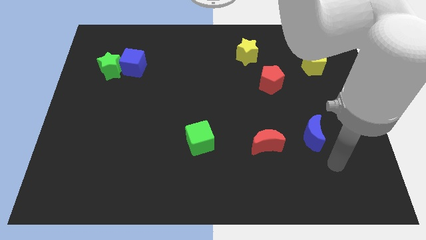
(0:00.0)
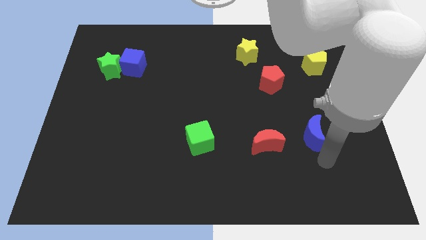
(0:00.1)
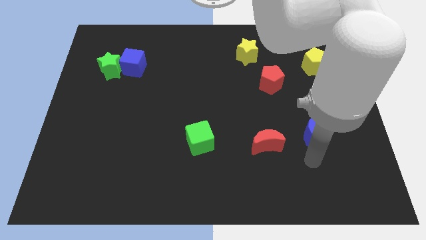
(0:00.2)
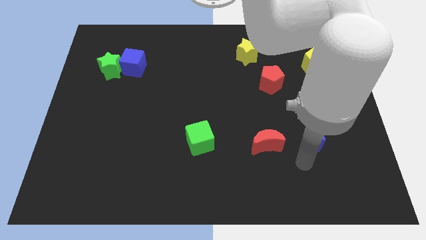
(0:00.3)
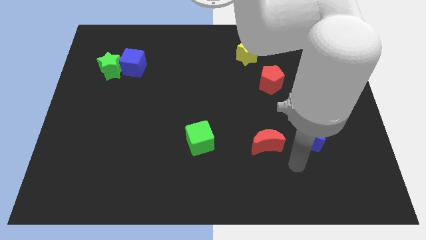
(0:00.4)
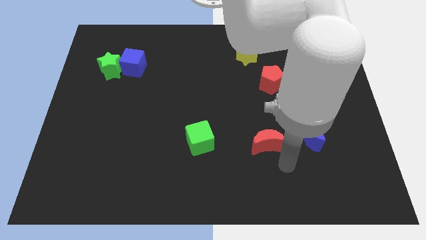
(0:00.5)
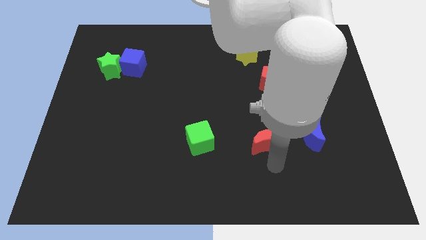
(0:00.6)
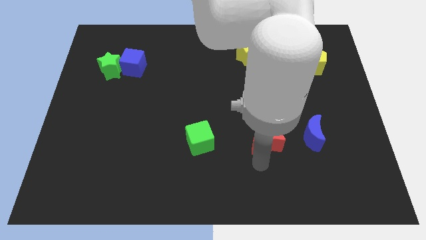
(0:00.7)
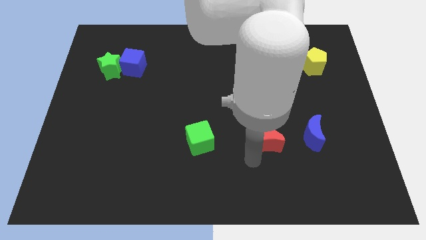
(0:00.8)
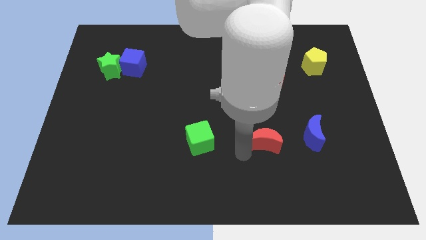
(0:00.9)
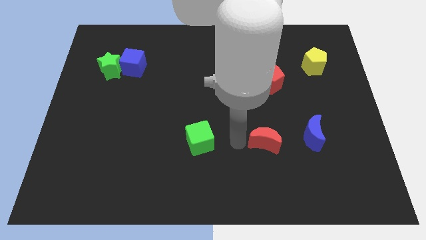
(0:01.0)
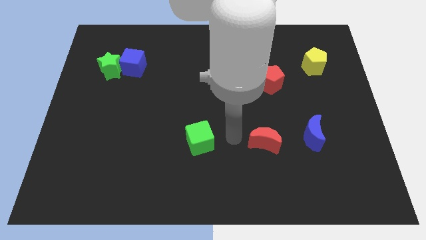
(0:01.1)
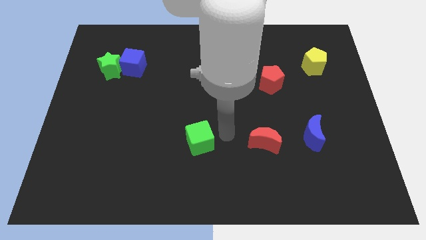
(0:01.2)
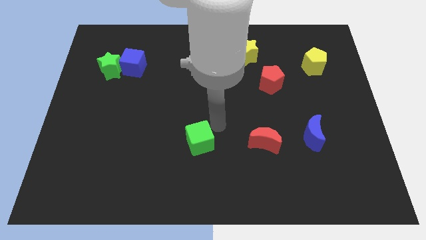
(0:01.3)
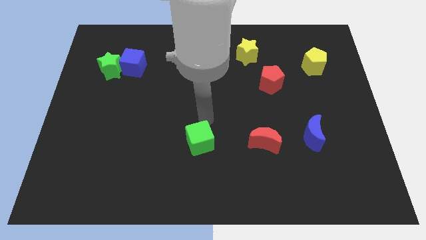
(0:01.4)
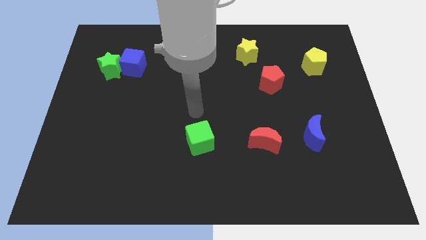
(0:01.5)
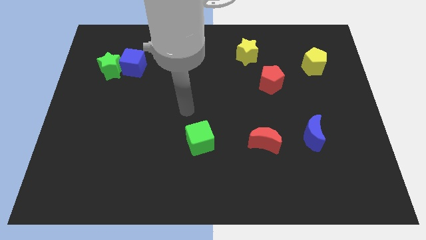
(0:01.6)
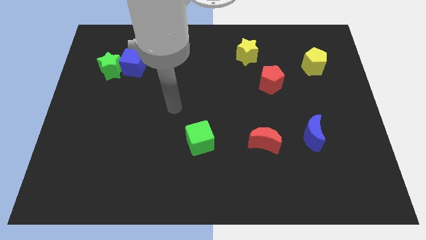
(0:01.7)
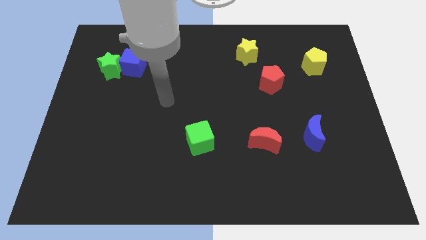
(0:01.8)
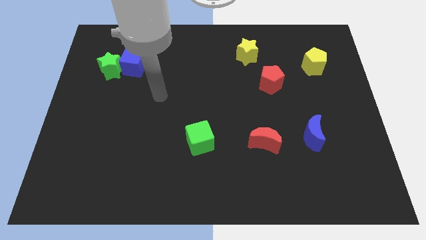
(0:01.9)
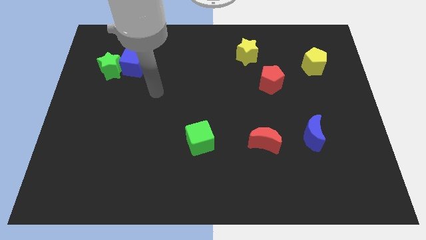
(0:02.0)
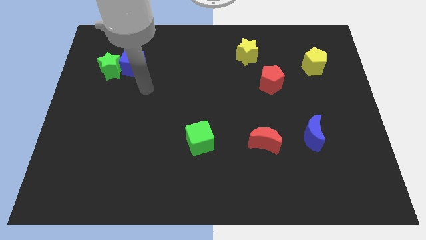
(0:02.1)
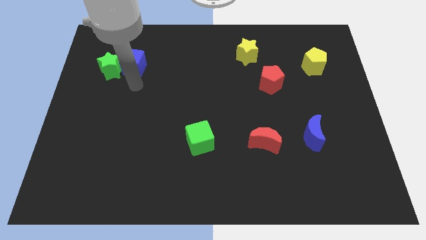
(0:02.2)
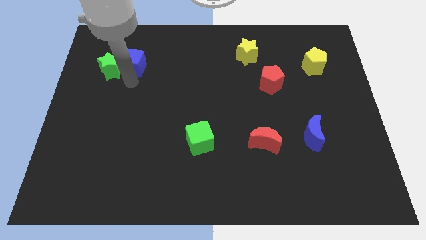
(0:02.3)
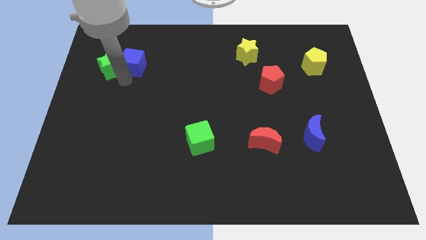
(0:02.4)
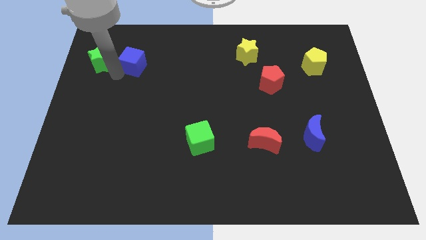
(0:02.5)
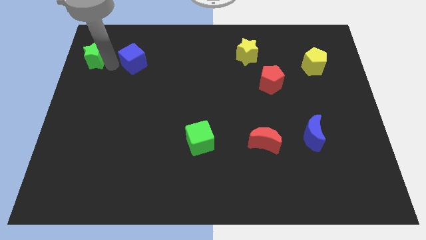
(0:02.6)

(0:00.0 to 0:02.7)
separate the blue cube from the green star

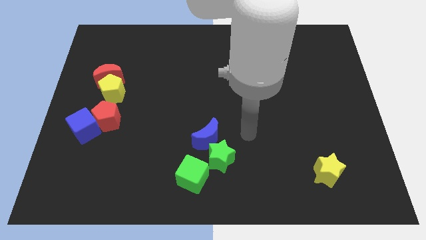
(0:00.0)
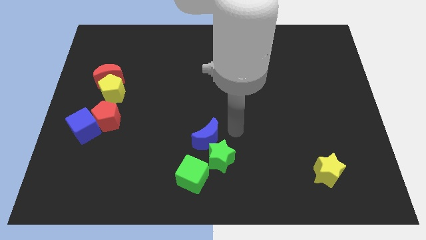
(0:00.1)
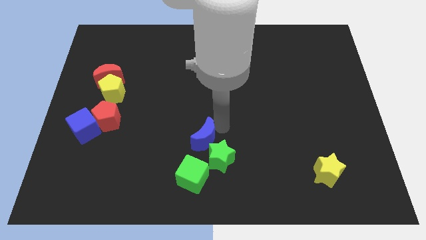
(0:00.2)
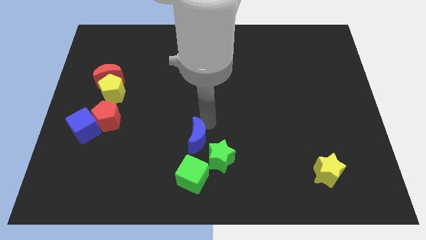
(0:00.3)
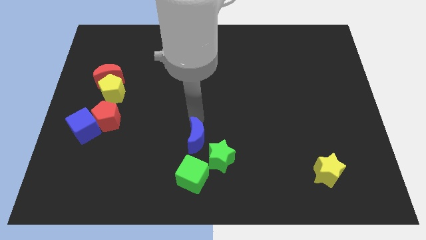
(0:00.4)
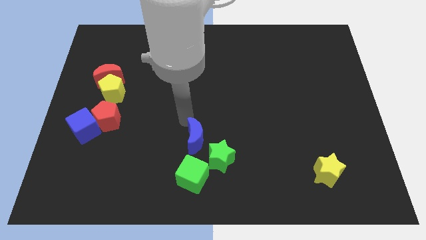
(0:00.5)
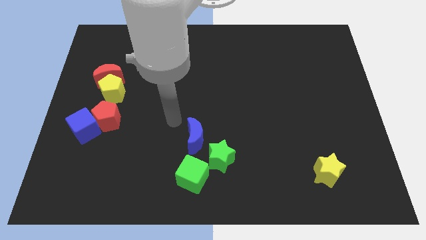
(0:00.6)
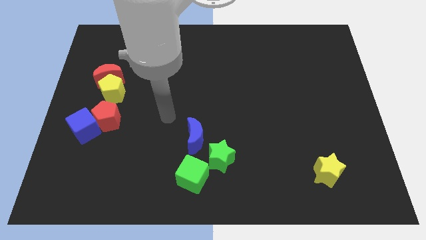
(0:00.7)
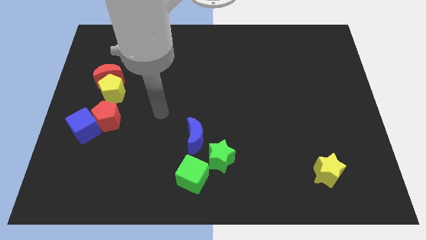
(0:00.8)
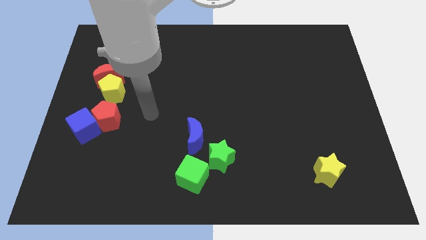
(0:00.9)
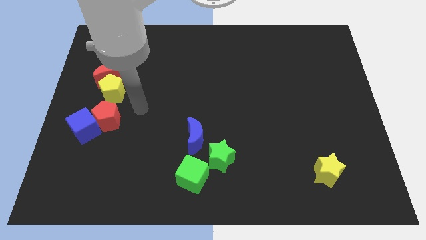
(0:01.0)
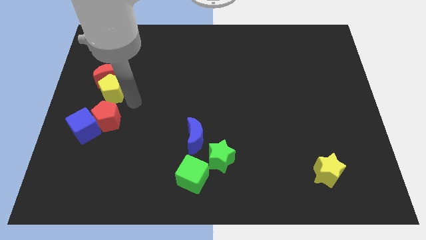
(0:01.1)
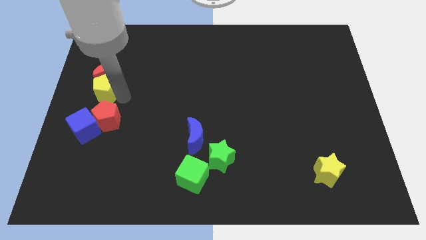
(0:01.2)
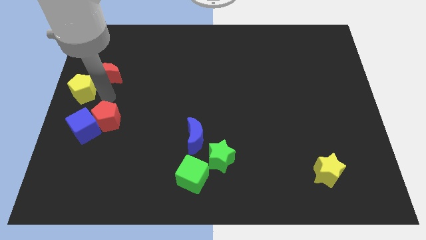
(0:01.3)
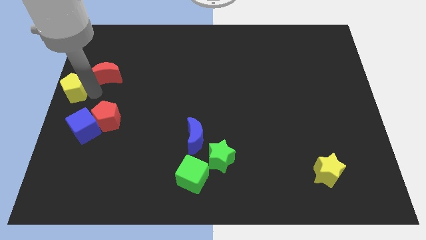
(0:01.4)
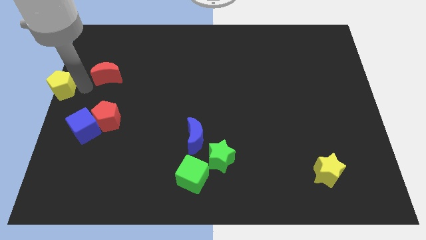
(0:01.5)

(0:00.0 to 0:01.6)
separate the red moon from the yellow pentagon

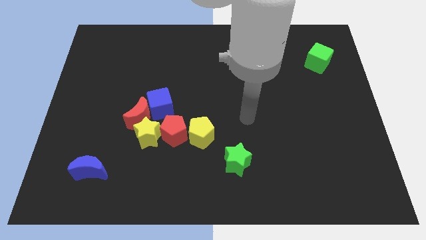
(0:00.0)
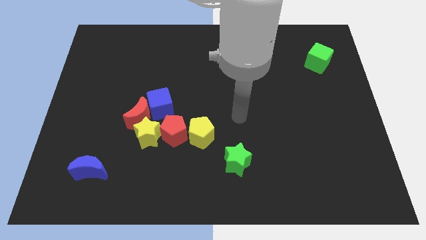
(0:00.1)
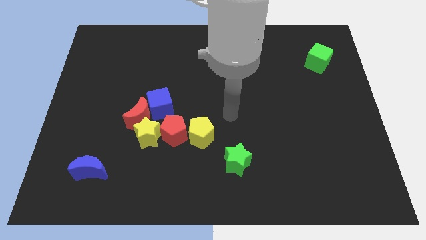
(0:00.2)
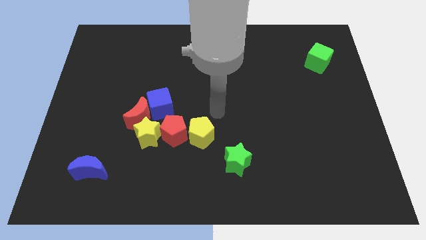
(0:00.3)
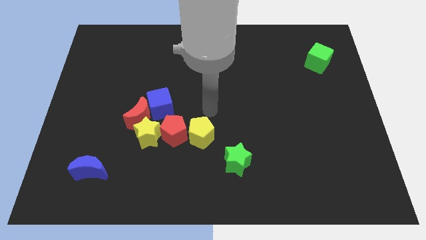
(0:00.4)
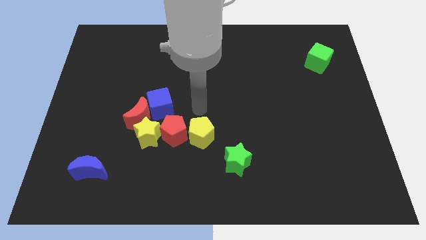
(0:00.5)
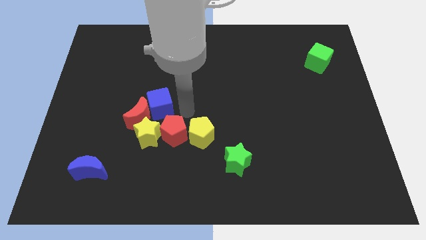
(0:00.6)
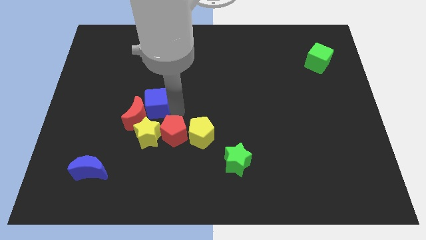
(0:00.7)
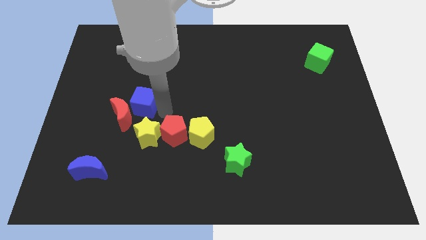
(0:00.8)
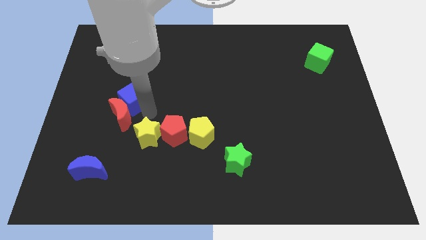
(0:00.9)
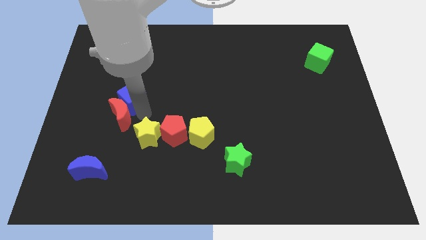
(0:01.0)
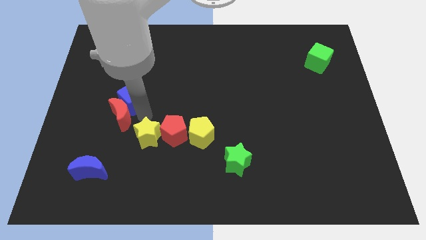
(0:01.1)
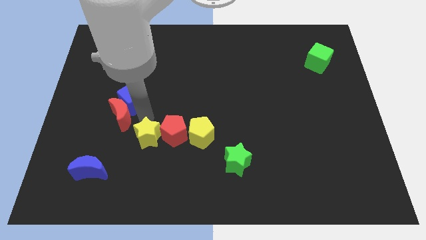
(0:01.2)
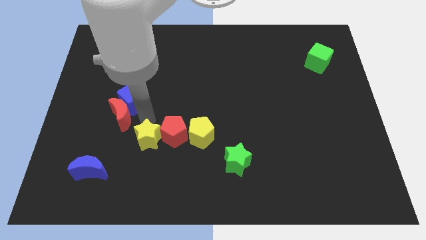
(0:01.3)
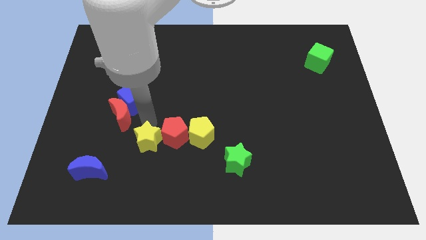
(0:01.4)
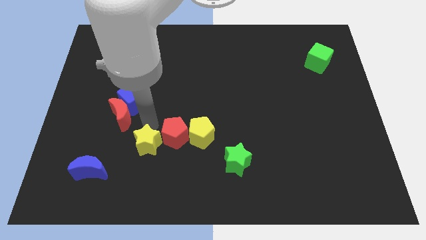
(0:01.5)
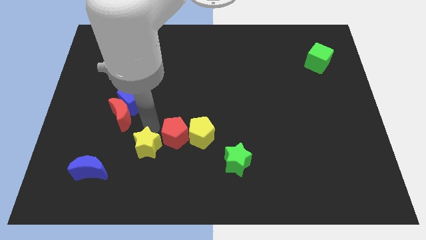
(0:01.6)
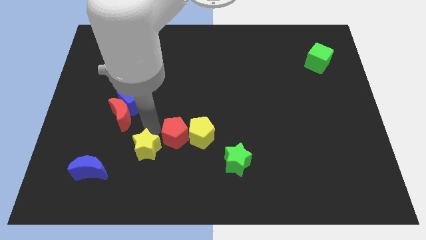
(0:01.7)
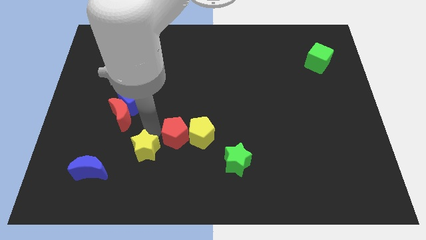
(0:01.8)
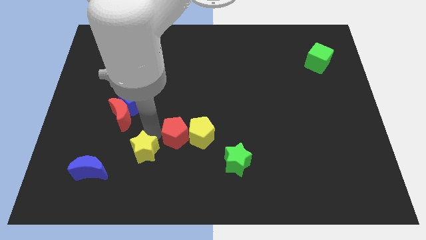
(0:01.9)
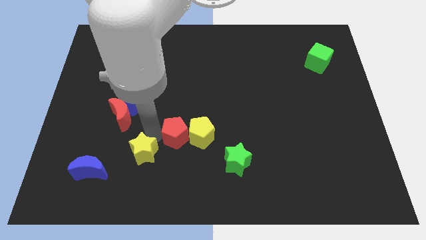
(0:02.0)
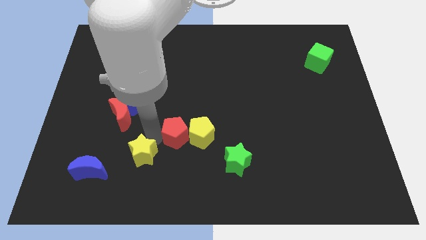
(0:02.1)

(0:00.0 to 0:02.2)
separate the yellow star from the group

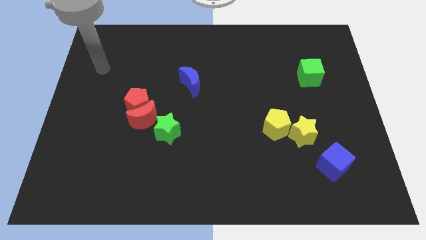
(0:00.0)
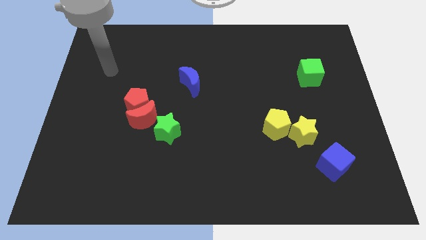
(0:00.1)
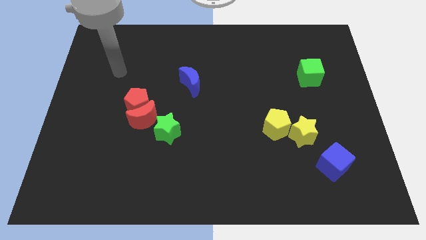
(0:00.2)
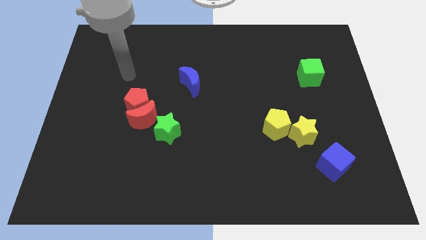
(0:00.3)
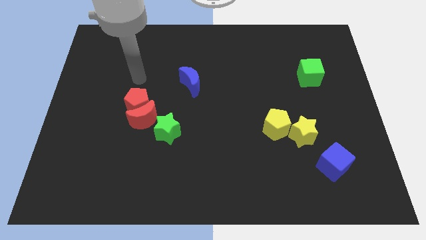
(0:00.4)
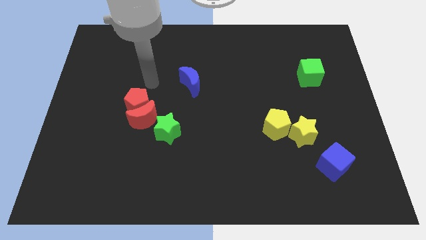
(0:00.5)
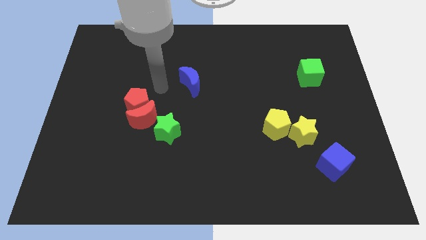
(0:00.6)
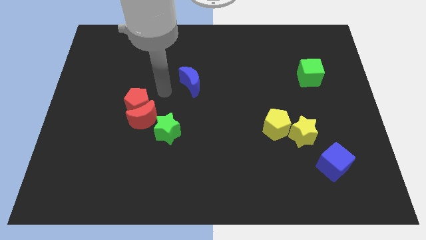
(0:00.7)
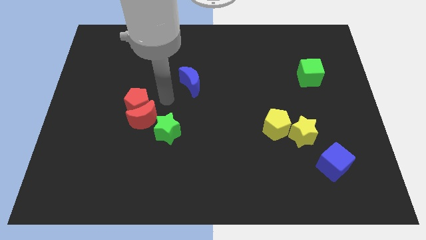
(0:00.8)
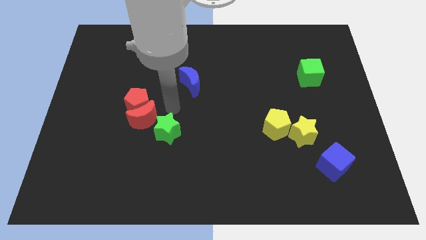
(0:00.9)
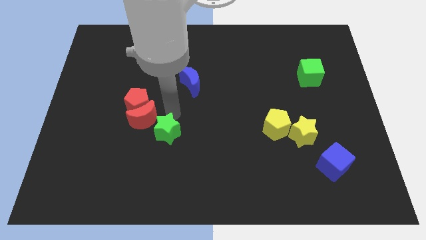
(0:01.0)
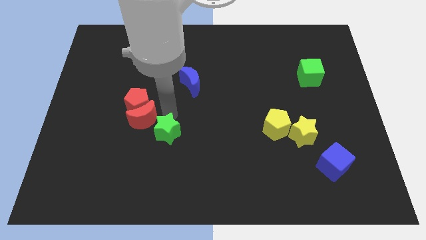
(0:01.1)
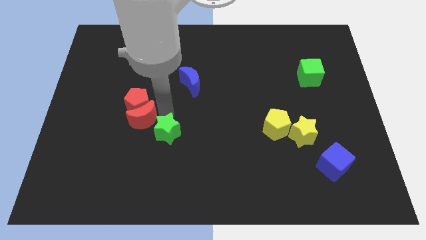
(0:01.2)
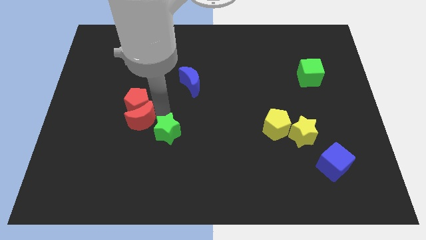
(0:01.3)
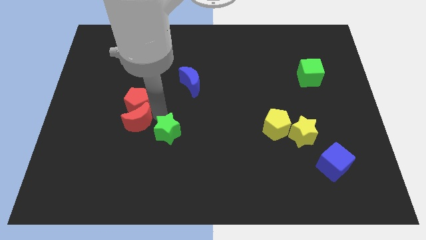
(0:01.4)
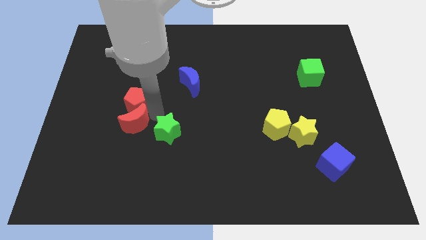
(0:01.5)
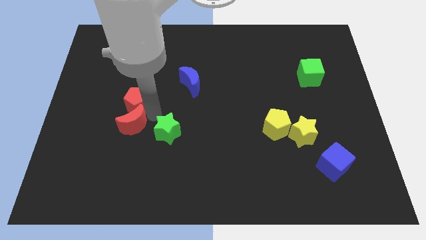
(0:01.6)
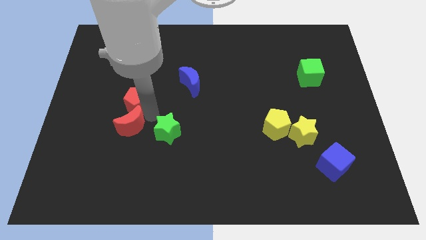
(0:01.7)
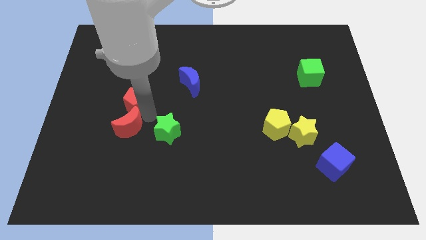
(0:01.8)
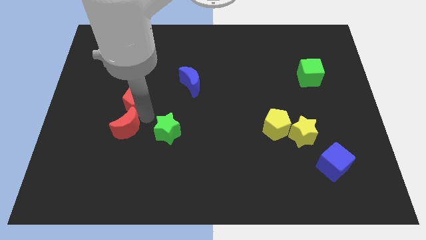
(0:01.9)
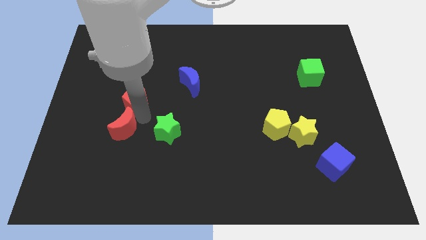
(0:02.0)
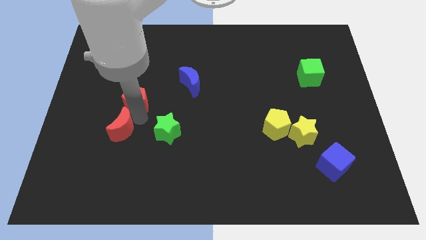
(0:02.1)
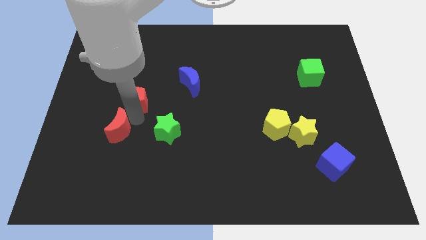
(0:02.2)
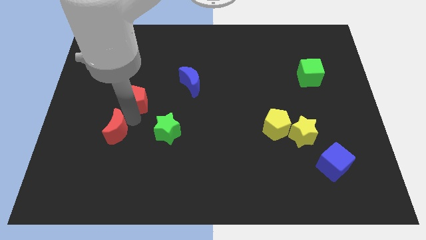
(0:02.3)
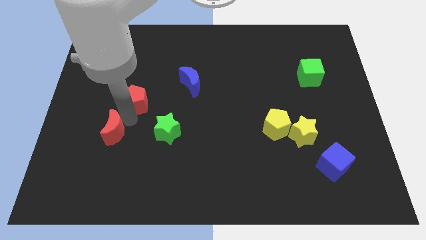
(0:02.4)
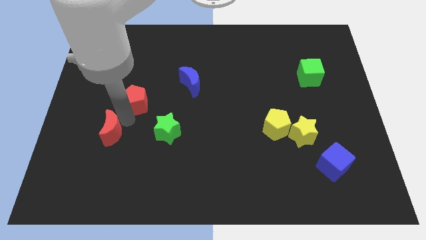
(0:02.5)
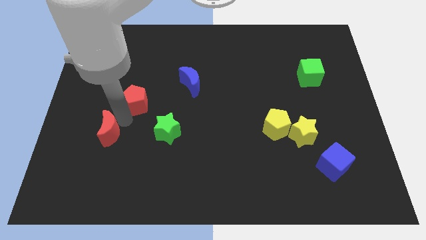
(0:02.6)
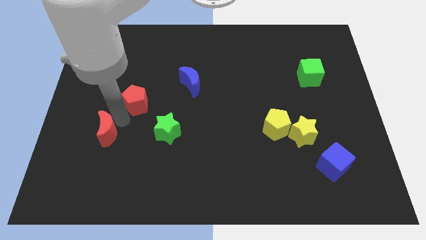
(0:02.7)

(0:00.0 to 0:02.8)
separate the red moon from the red pentagon and green star
